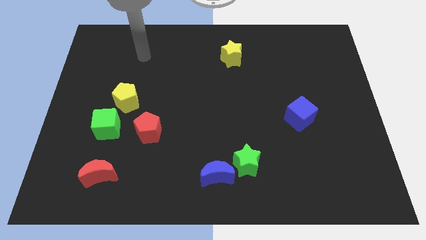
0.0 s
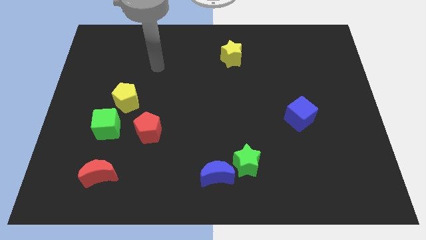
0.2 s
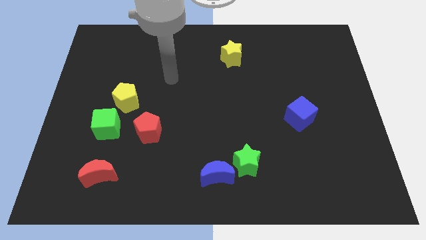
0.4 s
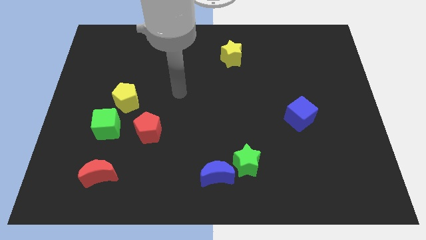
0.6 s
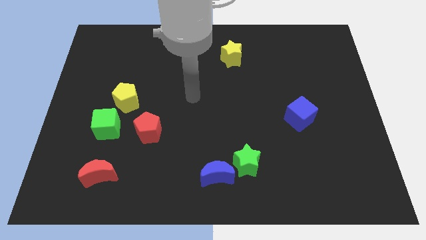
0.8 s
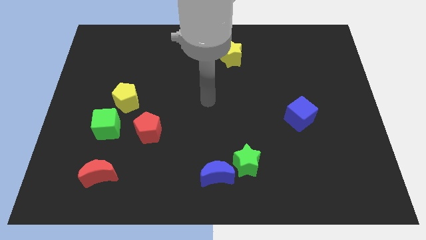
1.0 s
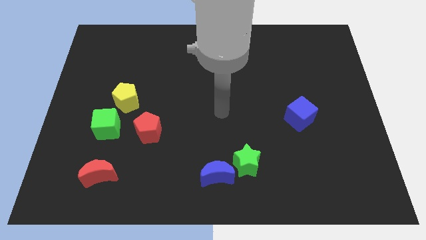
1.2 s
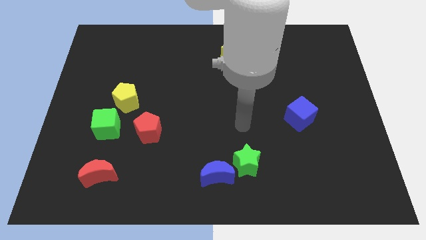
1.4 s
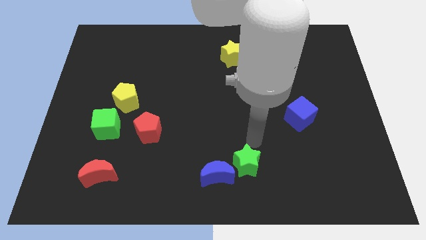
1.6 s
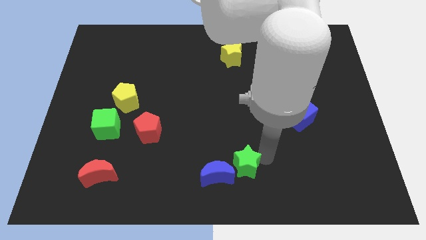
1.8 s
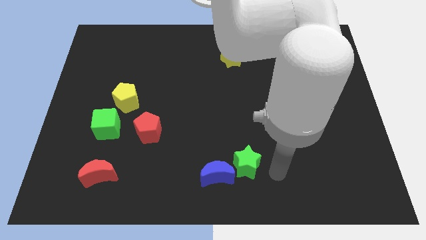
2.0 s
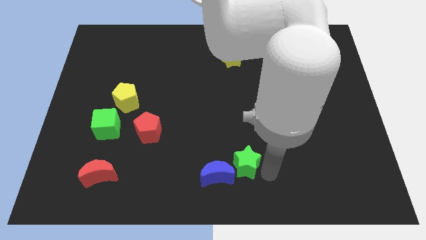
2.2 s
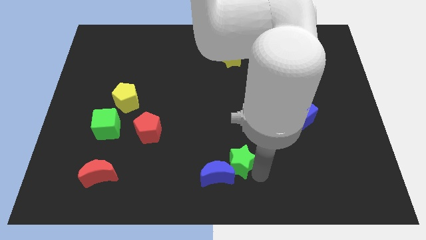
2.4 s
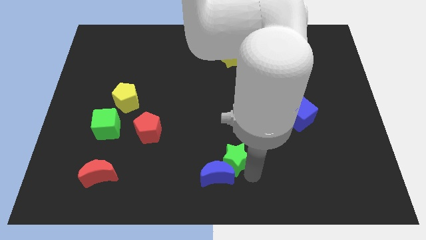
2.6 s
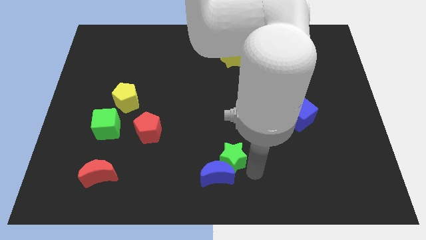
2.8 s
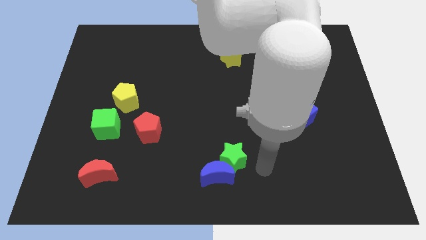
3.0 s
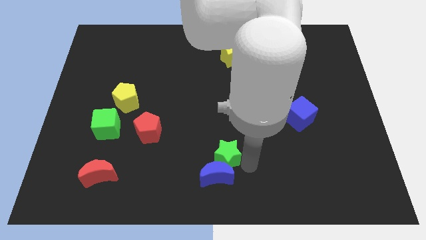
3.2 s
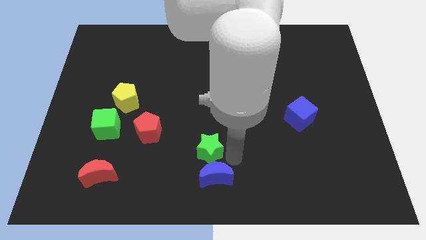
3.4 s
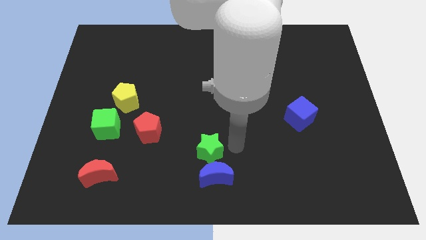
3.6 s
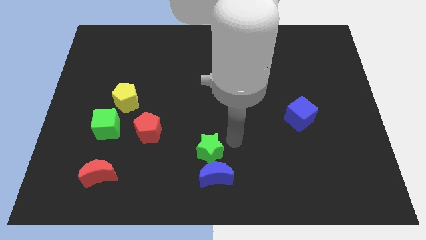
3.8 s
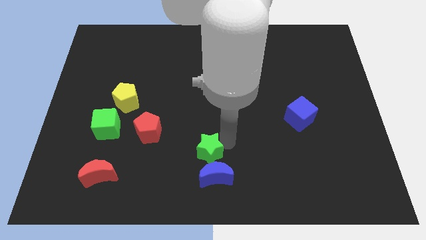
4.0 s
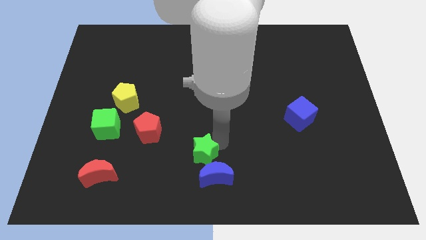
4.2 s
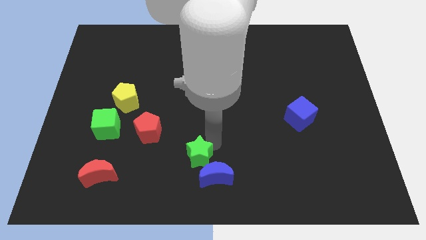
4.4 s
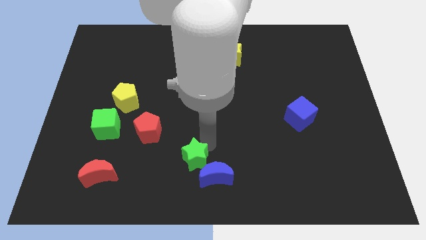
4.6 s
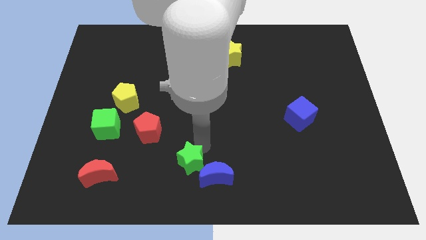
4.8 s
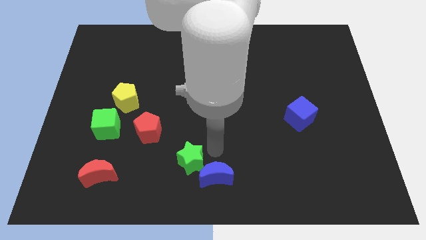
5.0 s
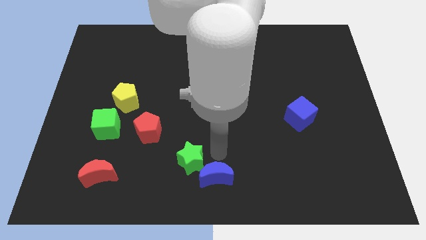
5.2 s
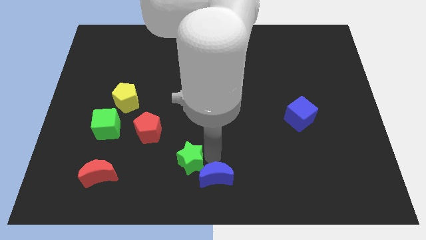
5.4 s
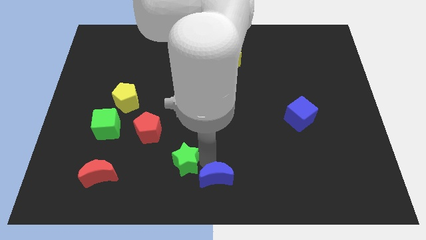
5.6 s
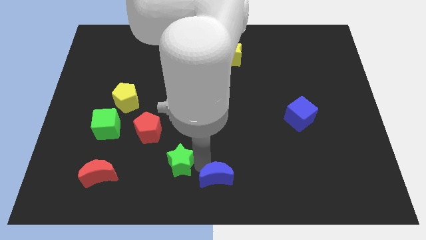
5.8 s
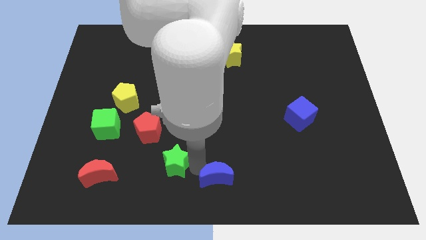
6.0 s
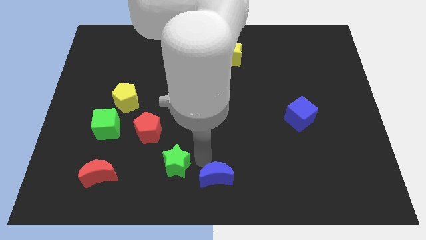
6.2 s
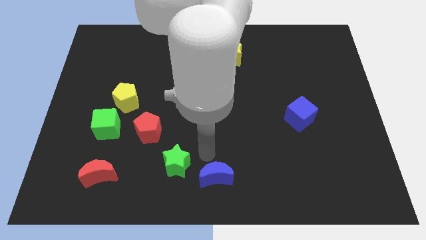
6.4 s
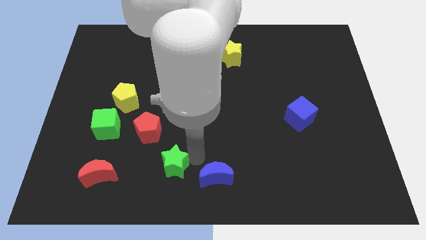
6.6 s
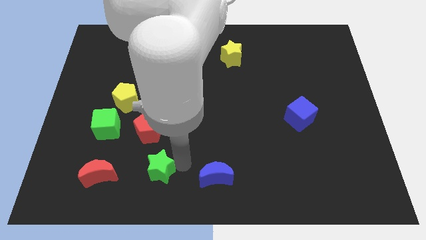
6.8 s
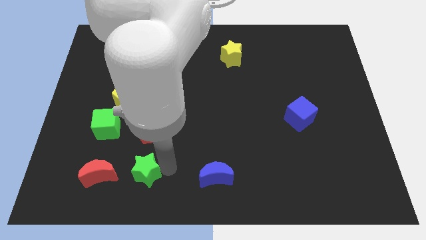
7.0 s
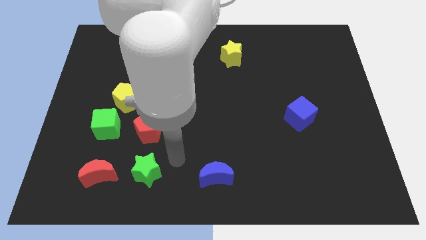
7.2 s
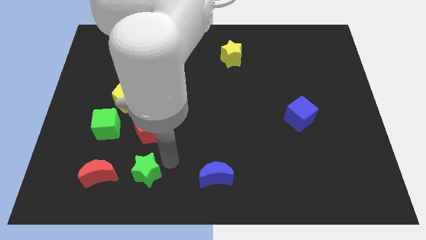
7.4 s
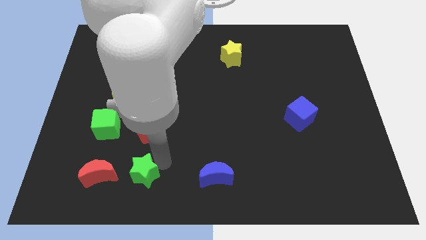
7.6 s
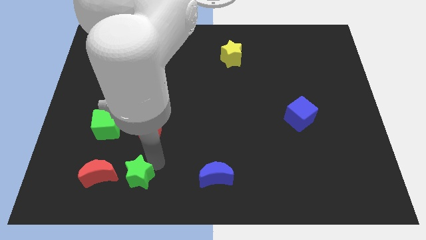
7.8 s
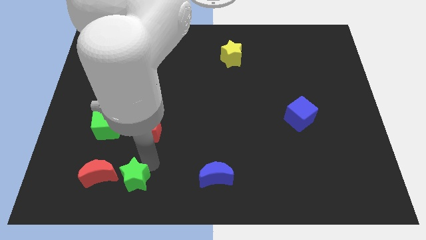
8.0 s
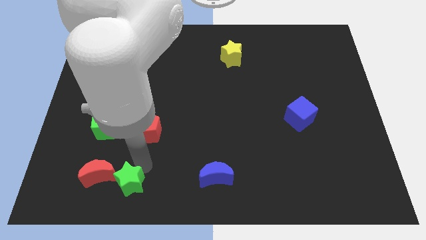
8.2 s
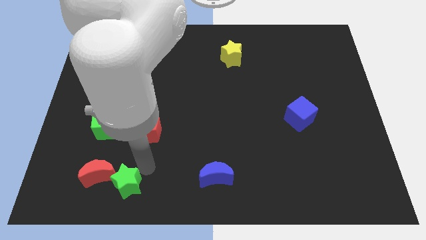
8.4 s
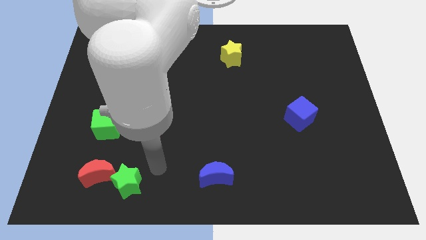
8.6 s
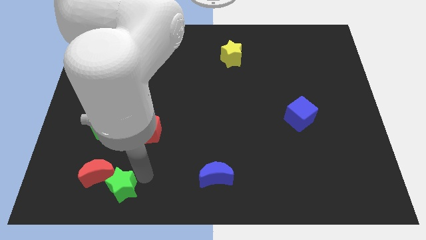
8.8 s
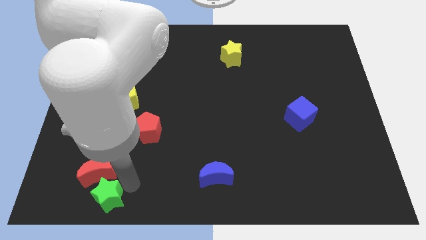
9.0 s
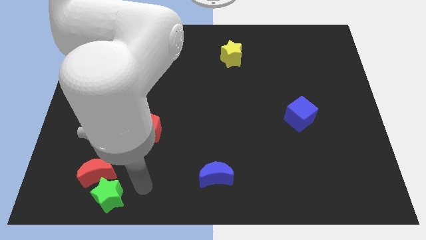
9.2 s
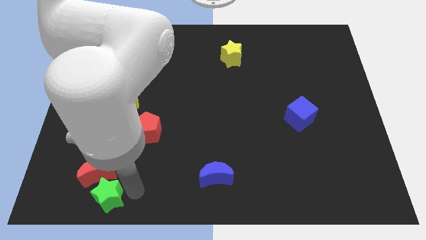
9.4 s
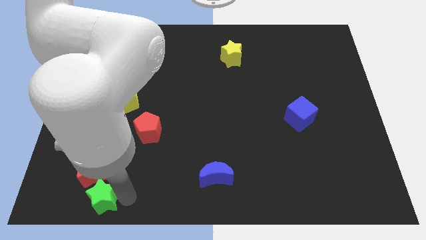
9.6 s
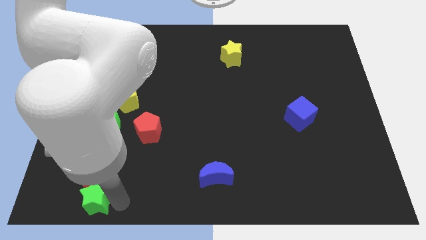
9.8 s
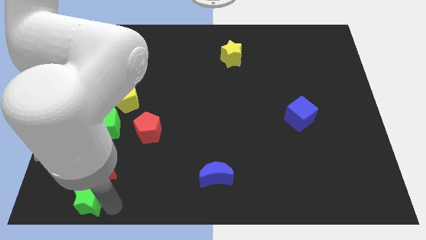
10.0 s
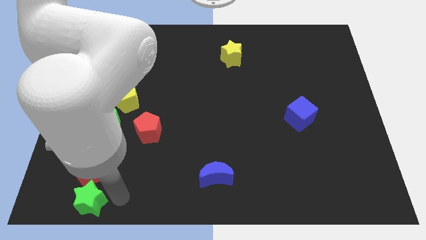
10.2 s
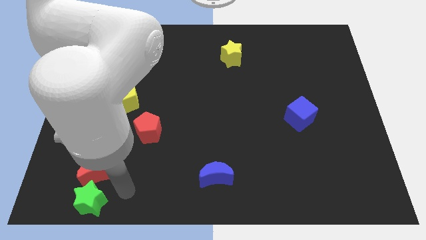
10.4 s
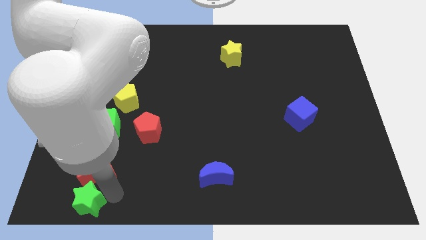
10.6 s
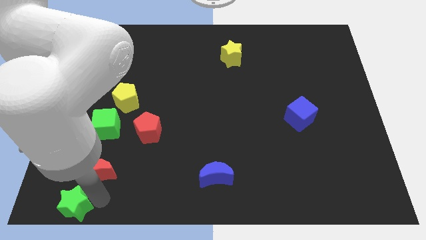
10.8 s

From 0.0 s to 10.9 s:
slide the green star to the bottom left of the board

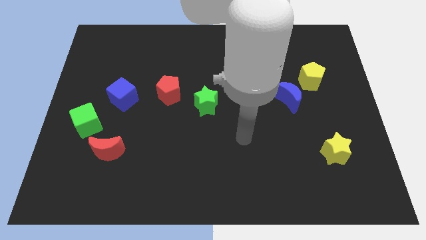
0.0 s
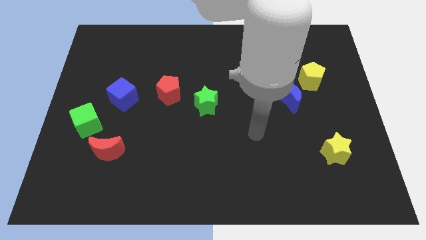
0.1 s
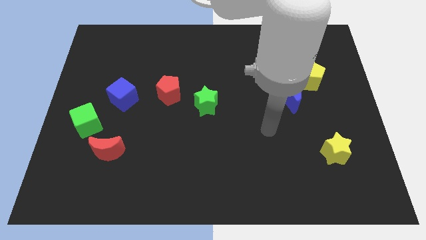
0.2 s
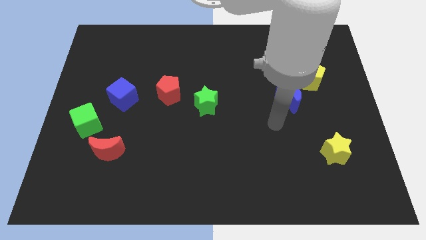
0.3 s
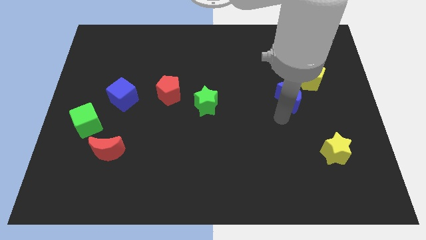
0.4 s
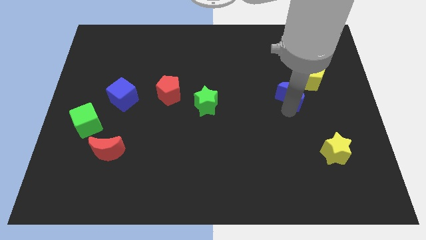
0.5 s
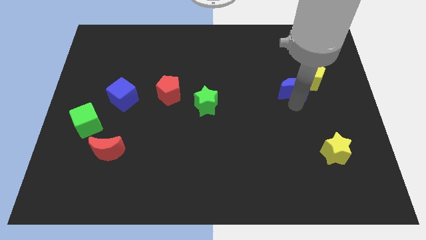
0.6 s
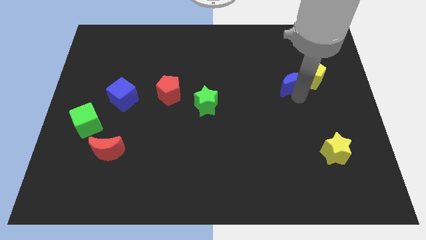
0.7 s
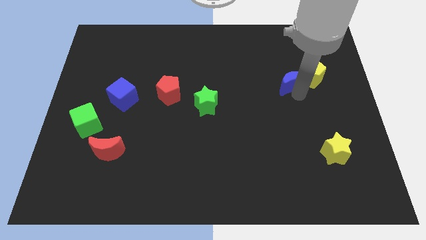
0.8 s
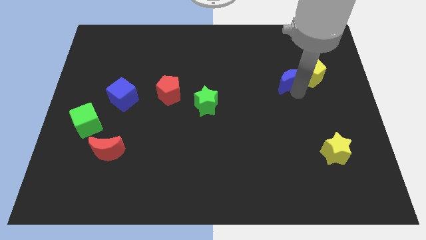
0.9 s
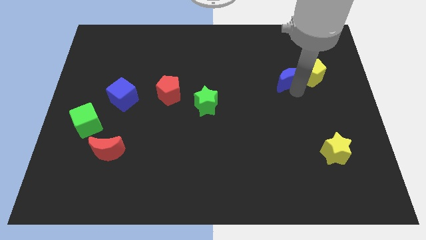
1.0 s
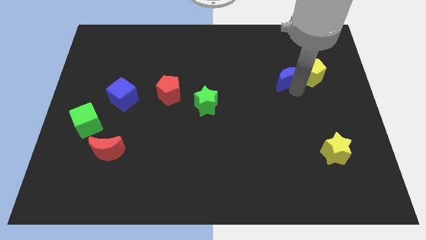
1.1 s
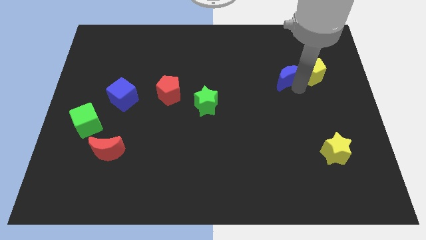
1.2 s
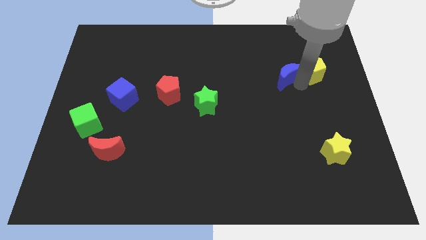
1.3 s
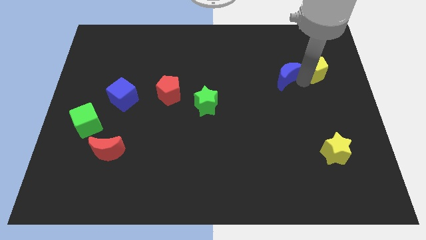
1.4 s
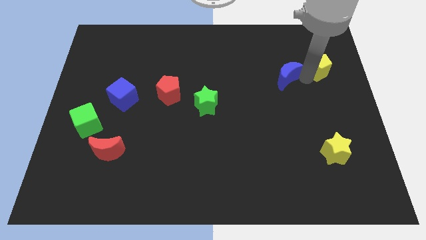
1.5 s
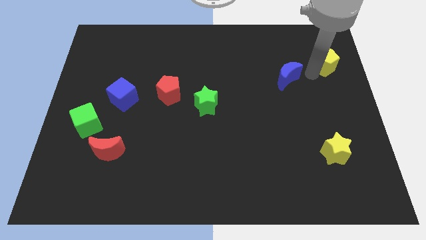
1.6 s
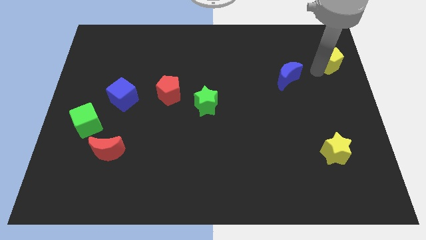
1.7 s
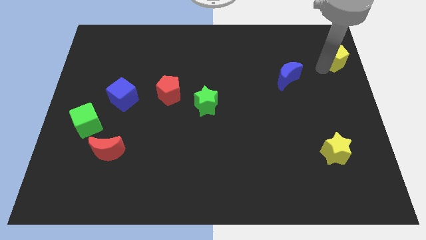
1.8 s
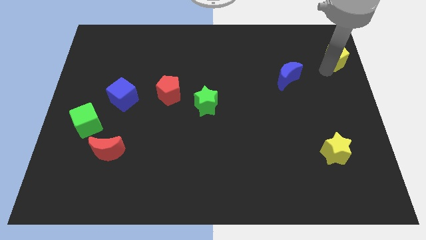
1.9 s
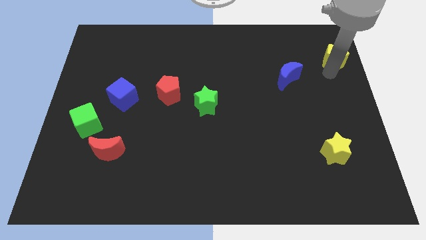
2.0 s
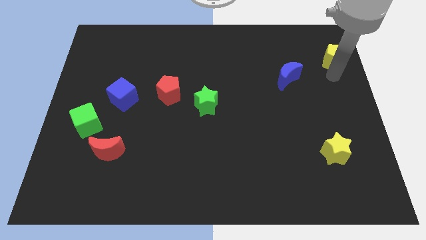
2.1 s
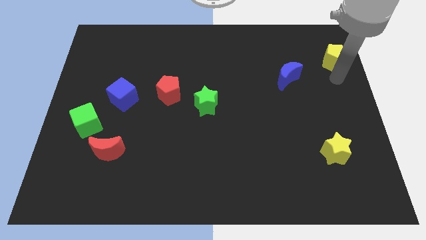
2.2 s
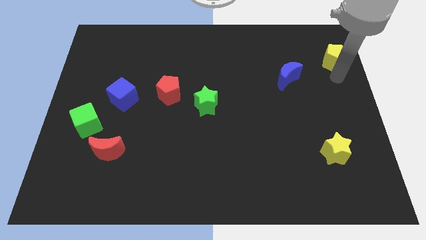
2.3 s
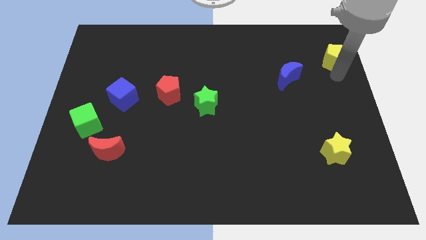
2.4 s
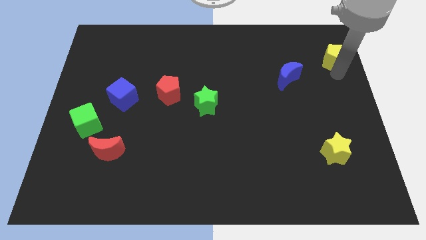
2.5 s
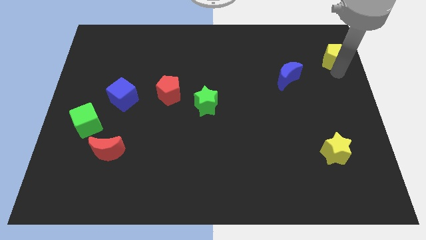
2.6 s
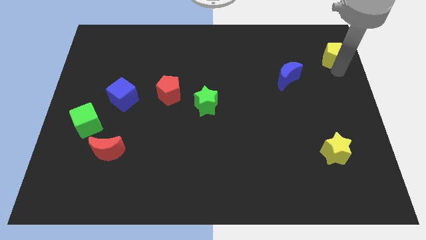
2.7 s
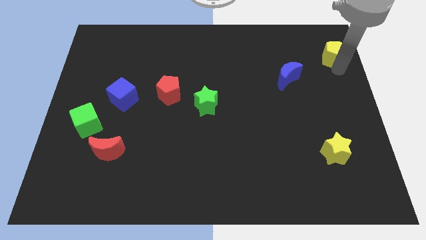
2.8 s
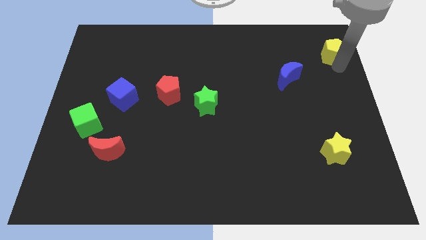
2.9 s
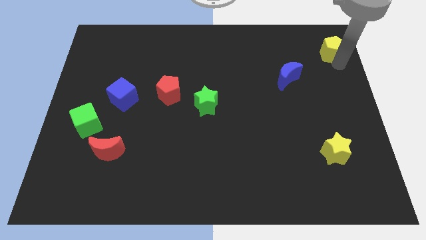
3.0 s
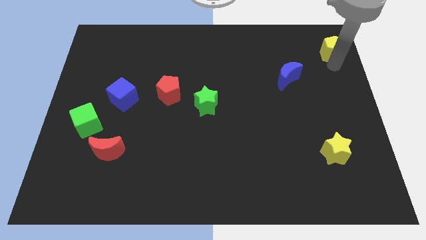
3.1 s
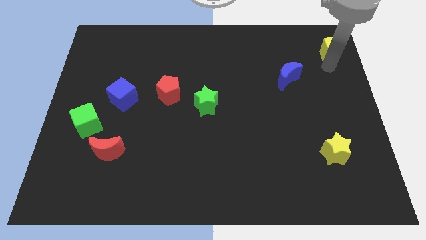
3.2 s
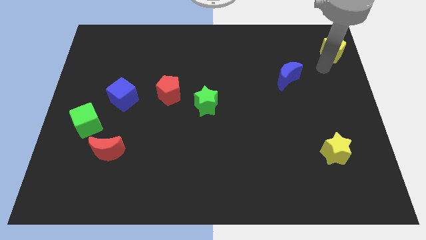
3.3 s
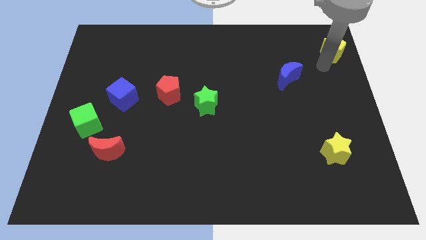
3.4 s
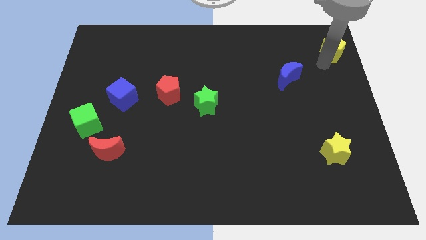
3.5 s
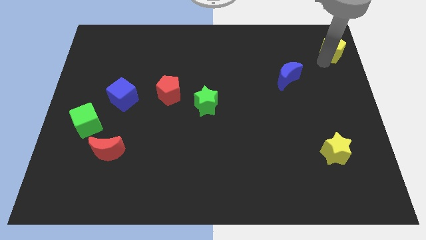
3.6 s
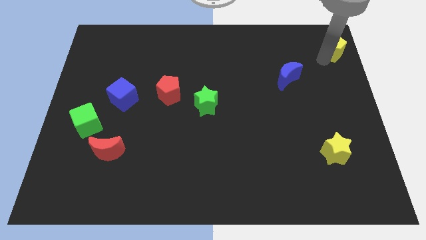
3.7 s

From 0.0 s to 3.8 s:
push the yellow pentagon to the top right
